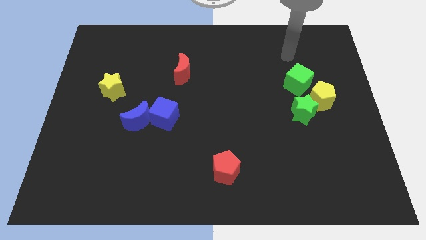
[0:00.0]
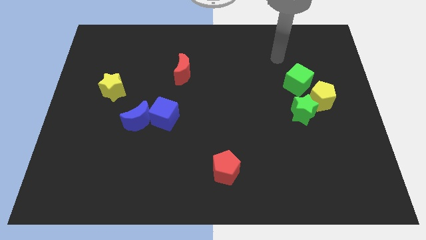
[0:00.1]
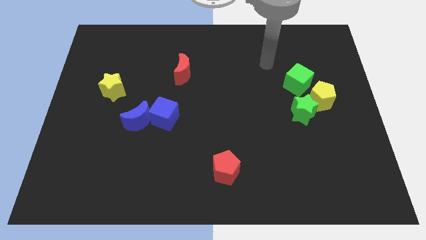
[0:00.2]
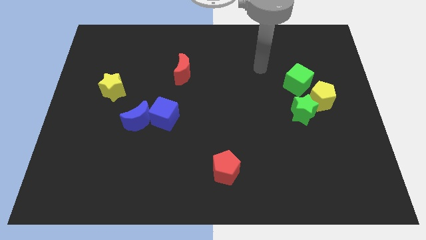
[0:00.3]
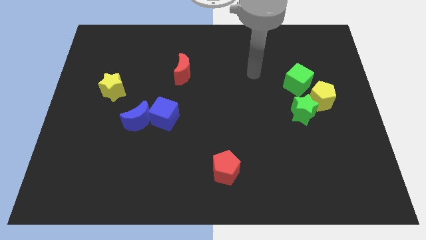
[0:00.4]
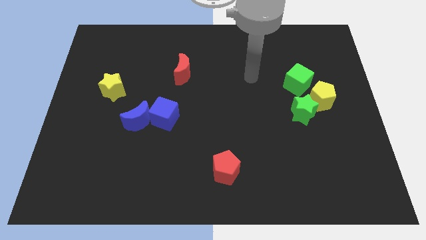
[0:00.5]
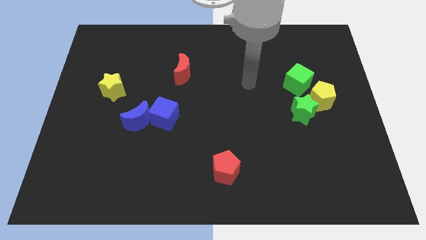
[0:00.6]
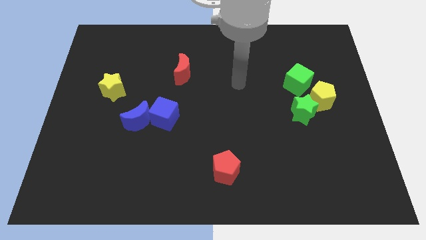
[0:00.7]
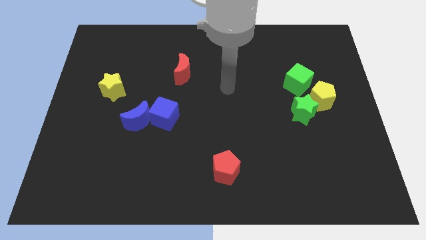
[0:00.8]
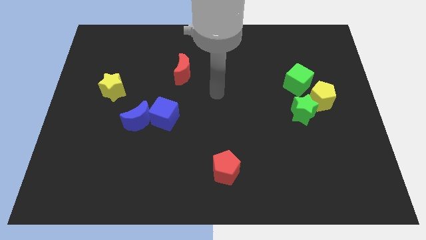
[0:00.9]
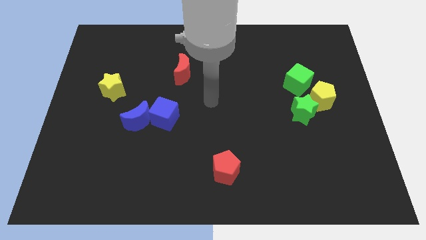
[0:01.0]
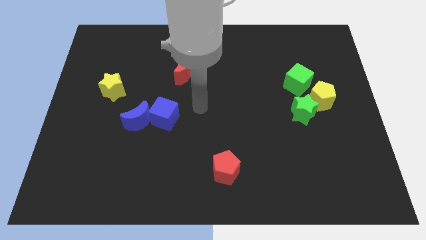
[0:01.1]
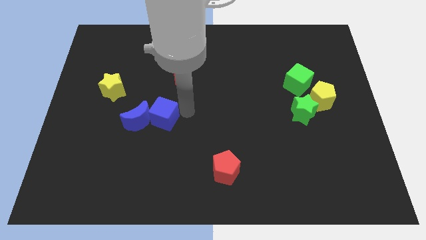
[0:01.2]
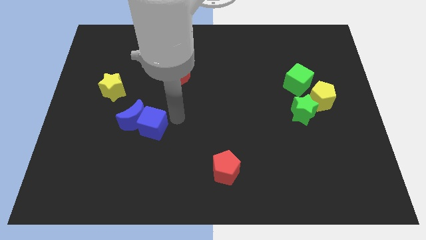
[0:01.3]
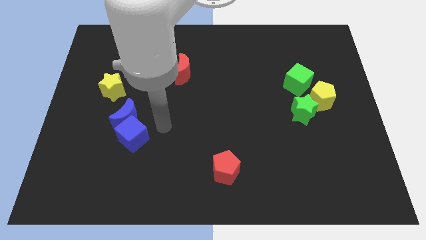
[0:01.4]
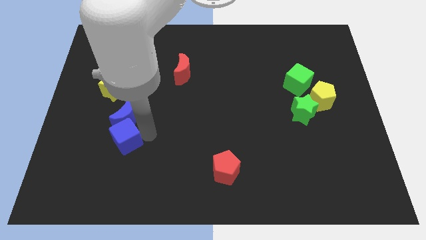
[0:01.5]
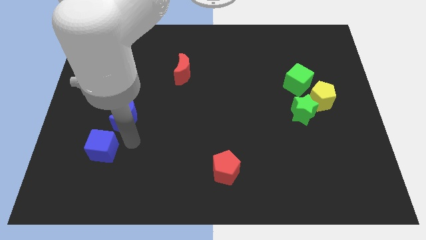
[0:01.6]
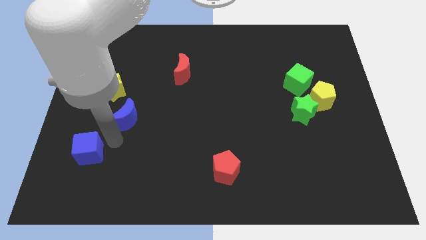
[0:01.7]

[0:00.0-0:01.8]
move the blue moon away from the blue cube

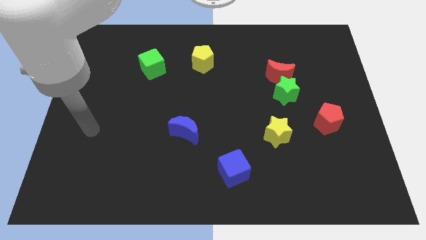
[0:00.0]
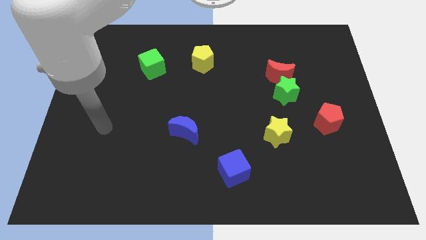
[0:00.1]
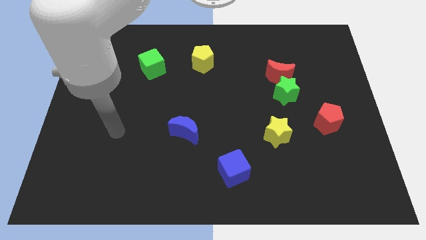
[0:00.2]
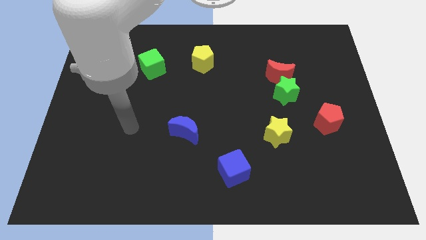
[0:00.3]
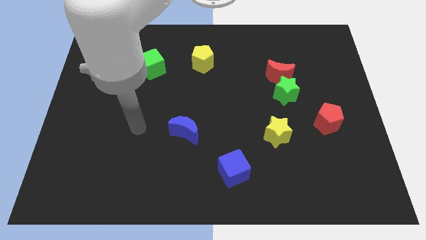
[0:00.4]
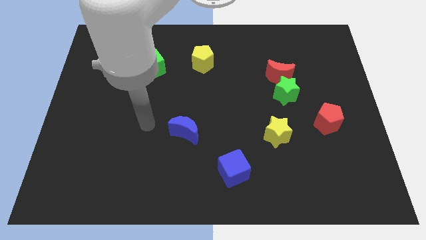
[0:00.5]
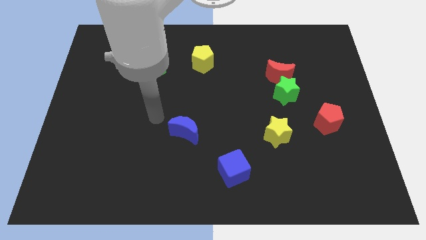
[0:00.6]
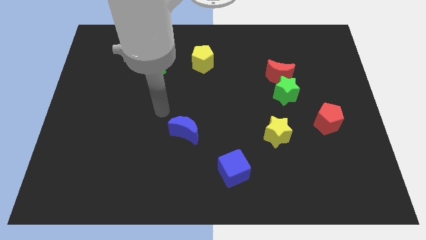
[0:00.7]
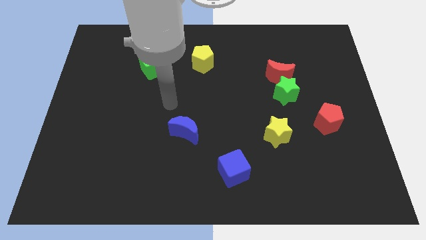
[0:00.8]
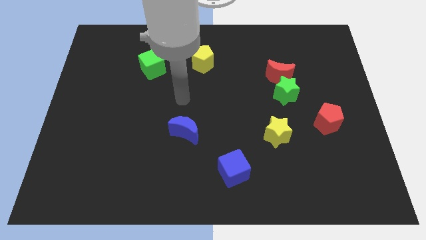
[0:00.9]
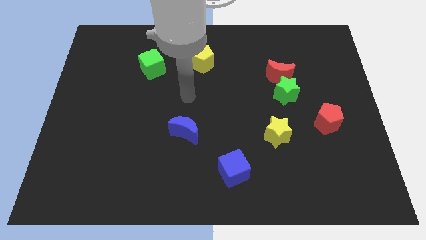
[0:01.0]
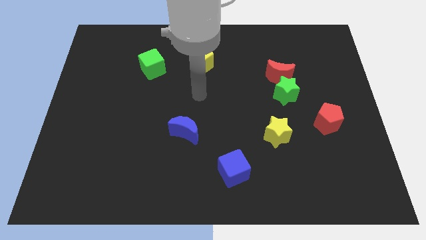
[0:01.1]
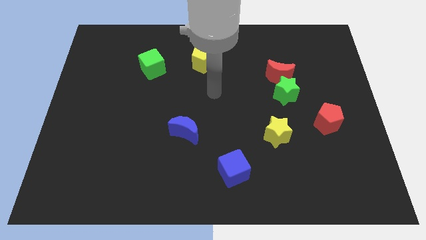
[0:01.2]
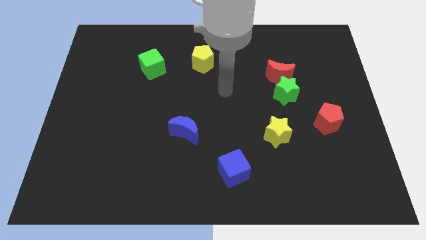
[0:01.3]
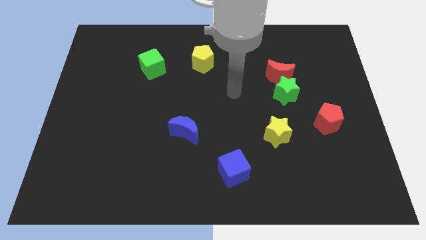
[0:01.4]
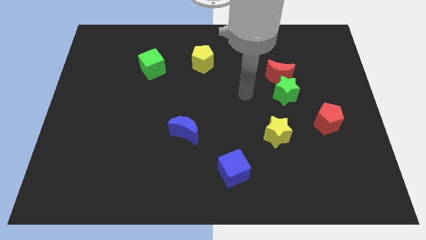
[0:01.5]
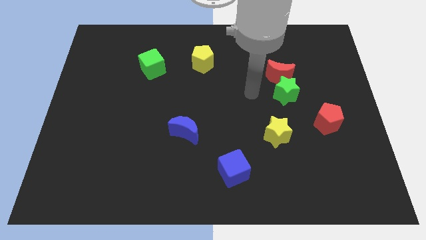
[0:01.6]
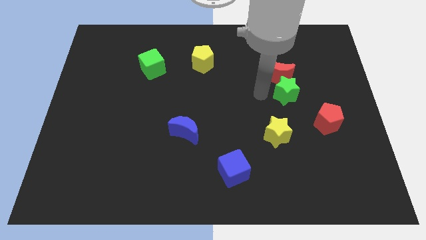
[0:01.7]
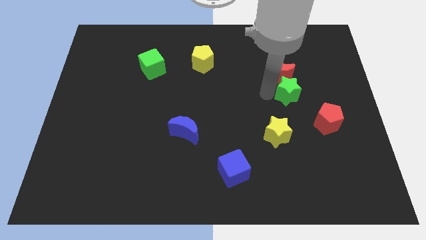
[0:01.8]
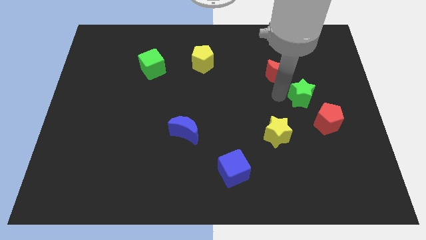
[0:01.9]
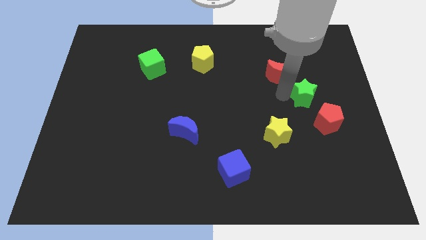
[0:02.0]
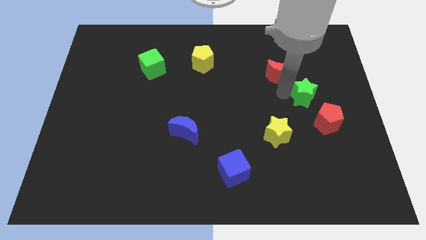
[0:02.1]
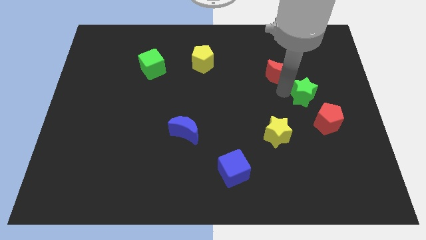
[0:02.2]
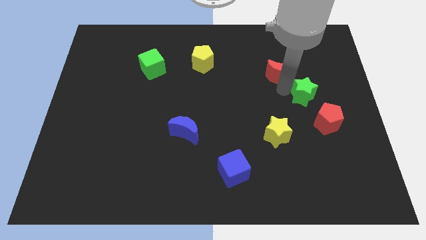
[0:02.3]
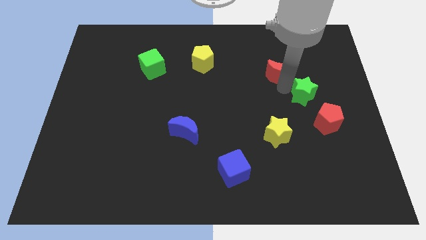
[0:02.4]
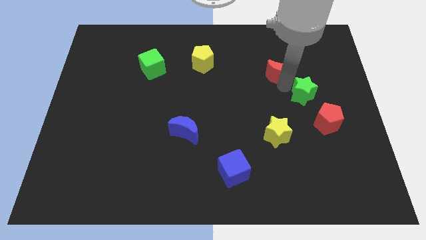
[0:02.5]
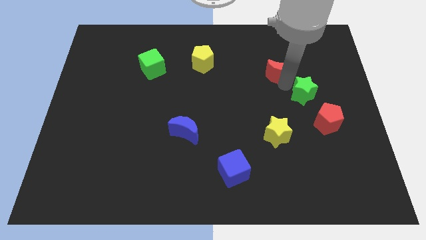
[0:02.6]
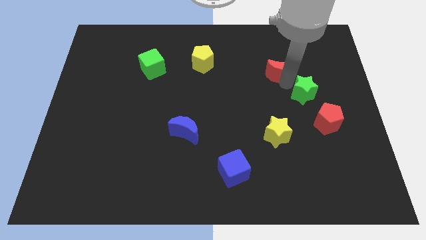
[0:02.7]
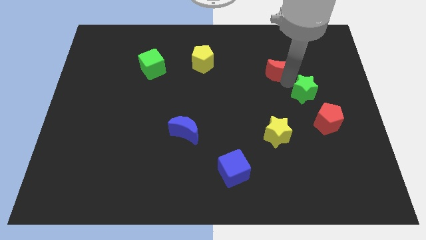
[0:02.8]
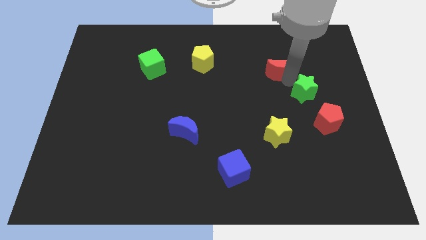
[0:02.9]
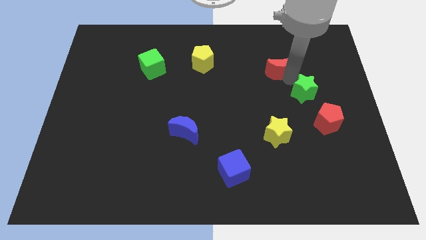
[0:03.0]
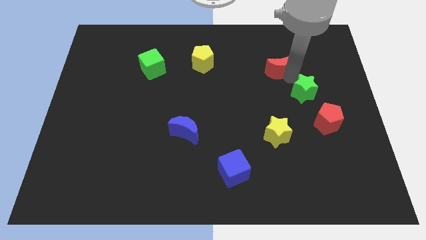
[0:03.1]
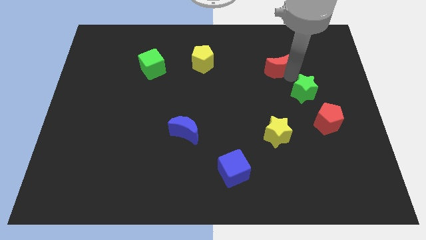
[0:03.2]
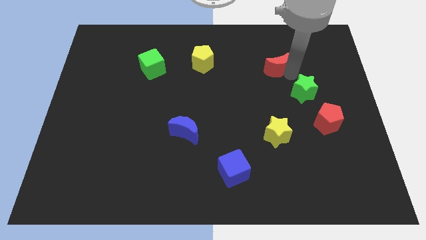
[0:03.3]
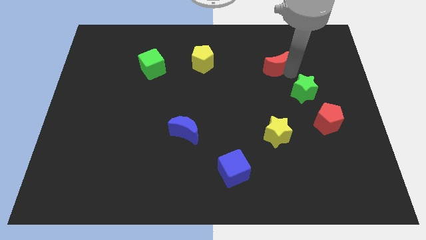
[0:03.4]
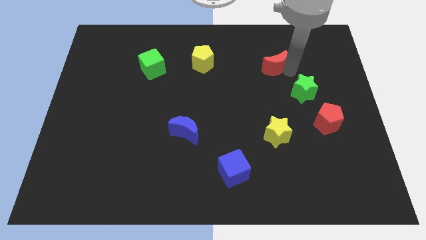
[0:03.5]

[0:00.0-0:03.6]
separate the red moon from the green star

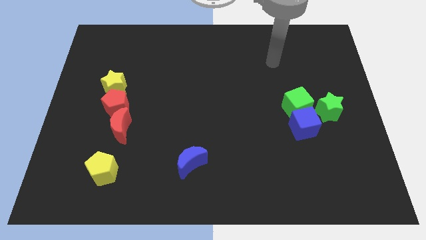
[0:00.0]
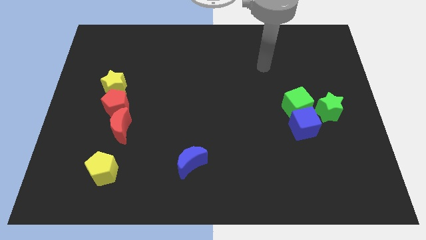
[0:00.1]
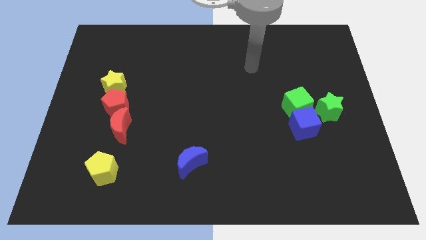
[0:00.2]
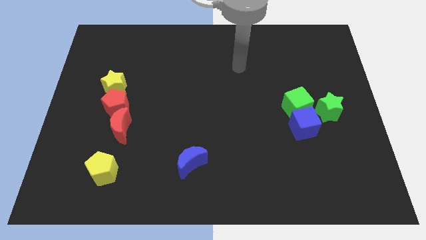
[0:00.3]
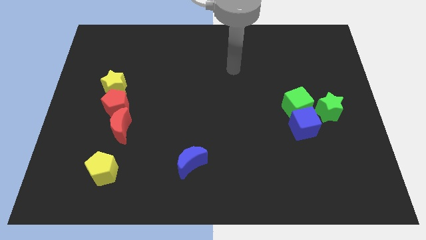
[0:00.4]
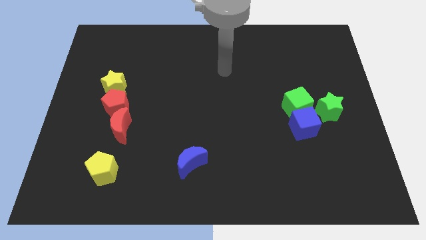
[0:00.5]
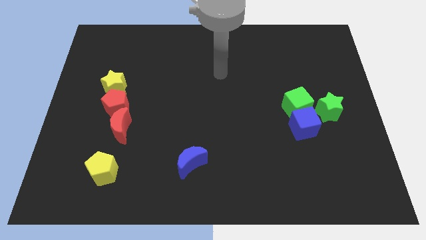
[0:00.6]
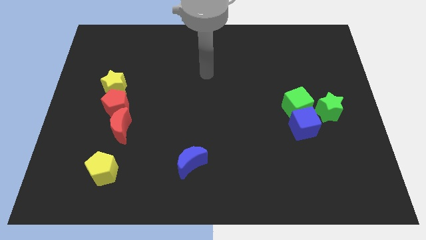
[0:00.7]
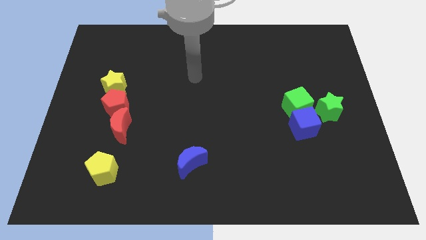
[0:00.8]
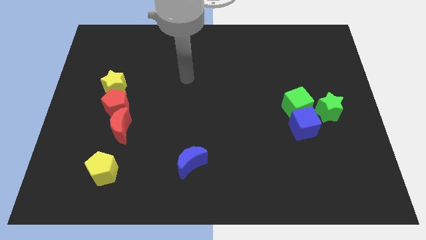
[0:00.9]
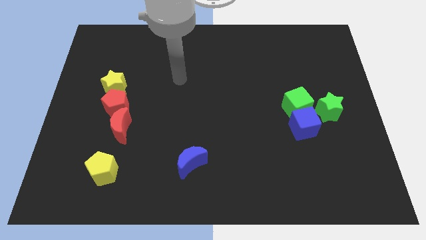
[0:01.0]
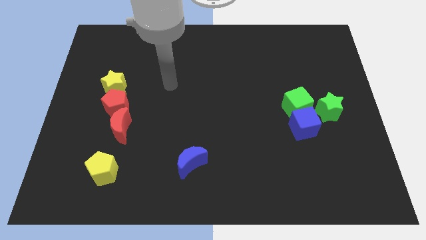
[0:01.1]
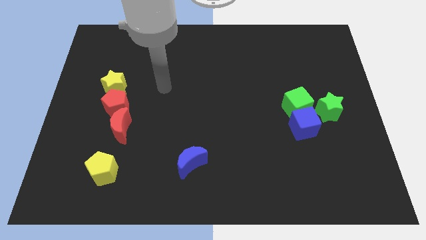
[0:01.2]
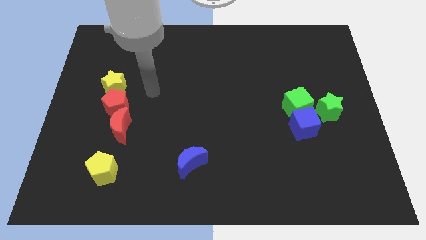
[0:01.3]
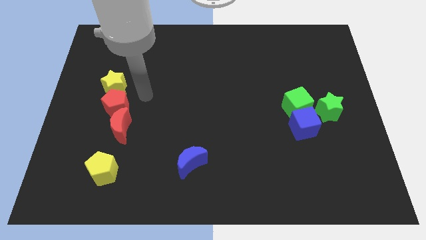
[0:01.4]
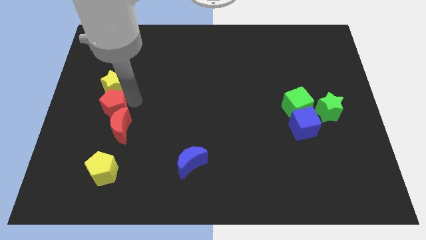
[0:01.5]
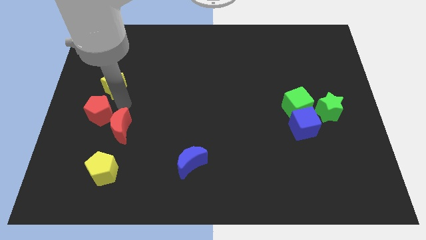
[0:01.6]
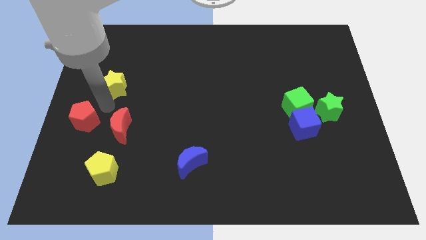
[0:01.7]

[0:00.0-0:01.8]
move the yellow star away from the red pentagon

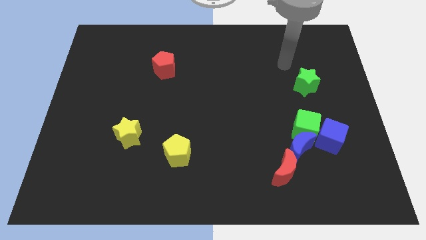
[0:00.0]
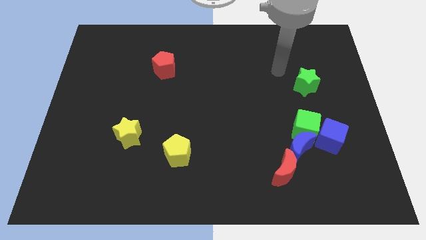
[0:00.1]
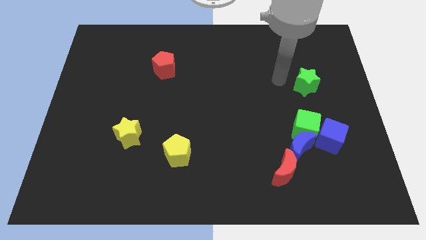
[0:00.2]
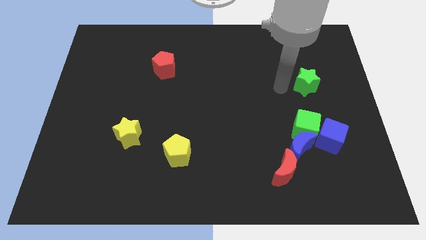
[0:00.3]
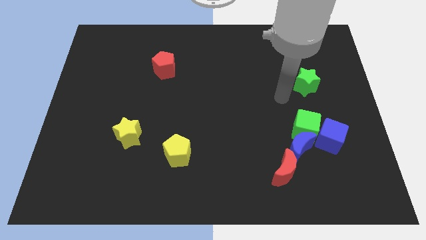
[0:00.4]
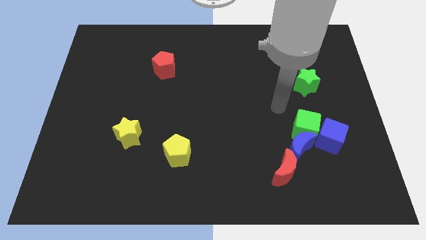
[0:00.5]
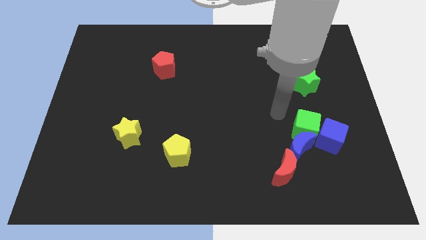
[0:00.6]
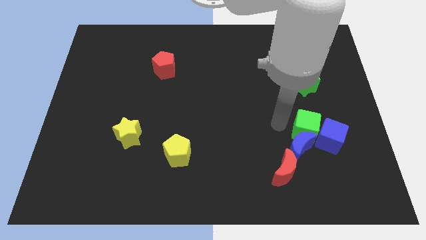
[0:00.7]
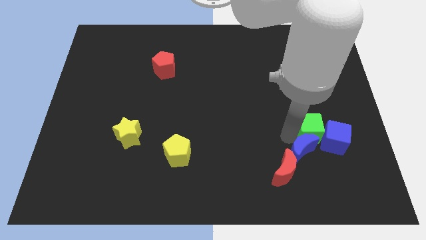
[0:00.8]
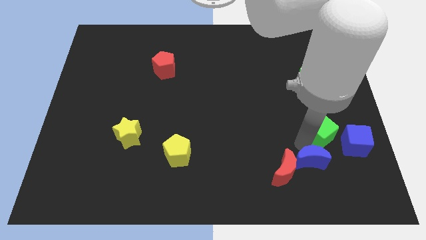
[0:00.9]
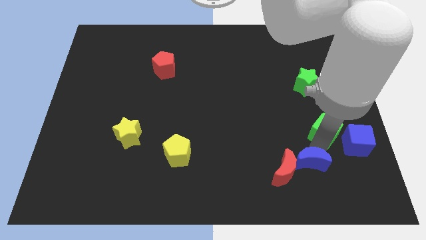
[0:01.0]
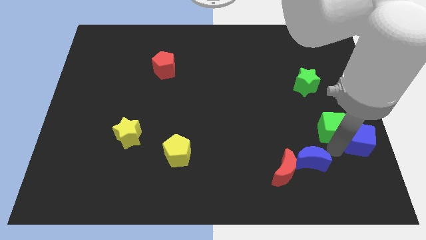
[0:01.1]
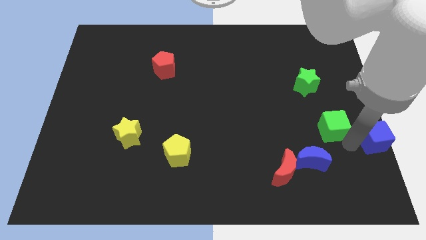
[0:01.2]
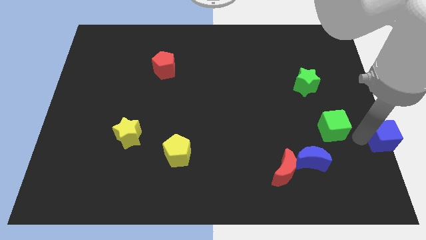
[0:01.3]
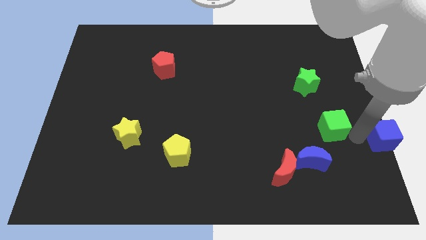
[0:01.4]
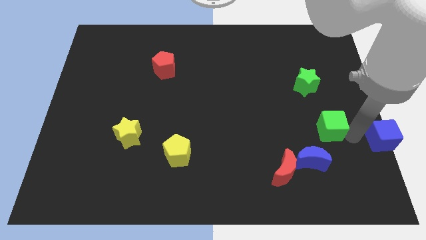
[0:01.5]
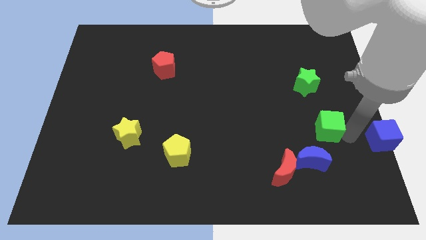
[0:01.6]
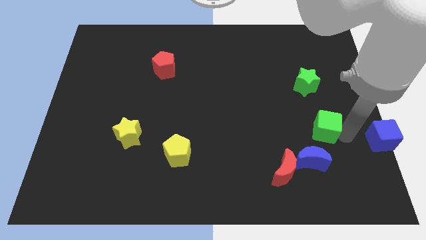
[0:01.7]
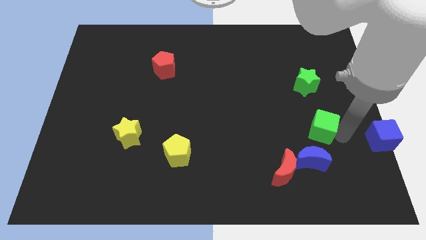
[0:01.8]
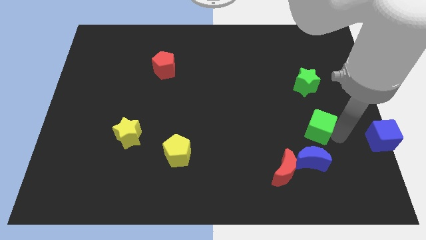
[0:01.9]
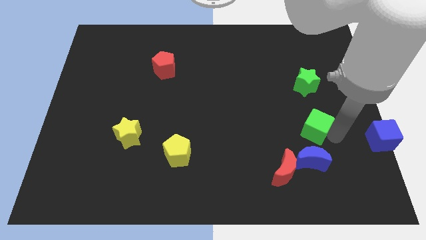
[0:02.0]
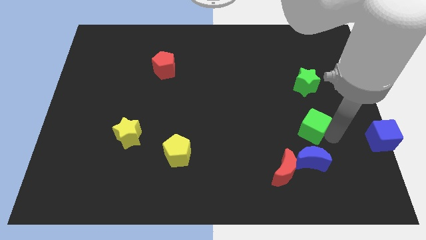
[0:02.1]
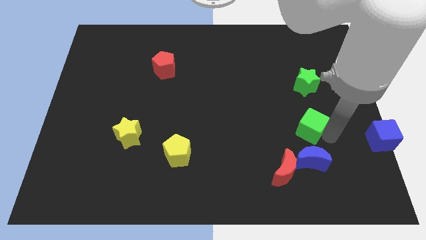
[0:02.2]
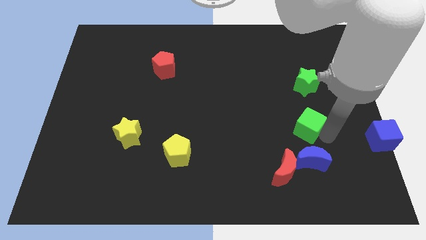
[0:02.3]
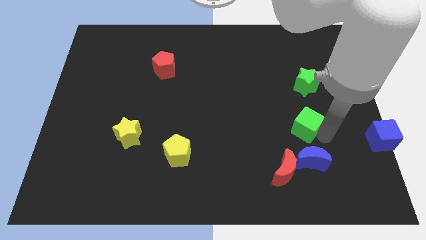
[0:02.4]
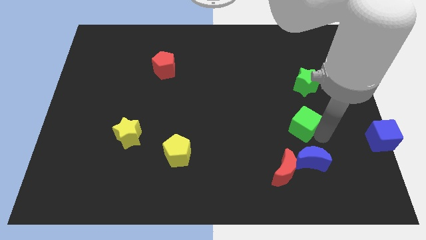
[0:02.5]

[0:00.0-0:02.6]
pull the green cube apart from the blue moon and blue cube
